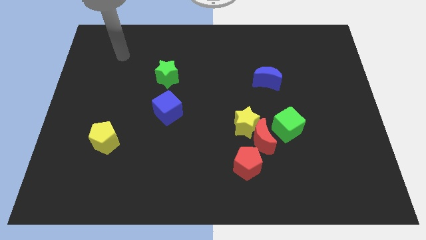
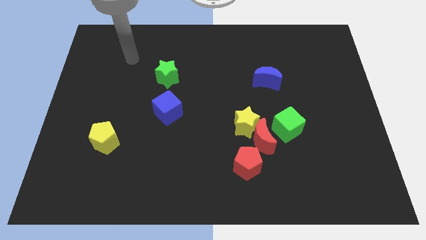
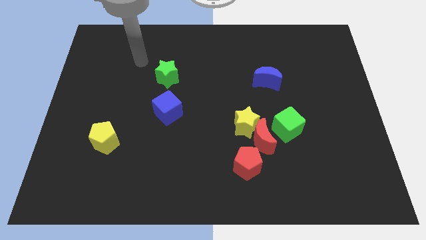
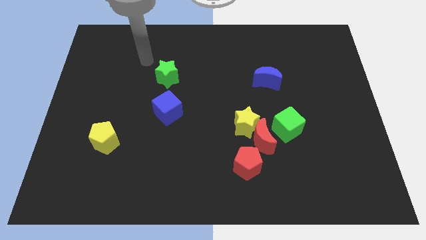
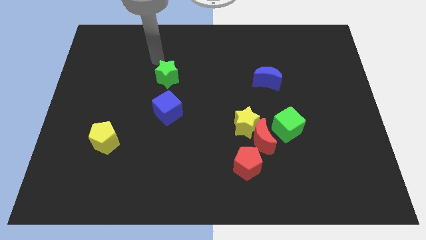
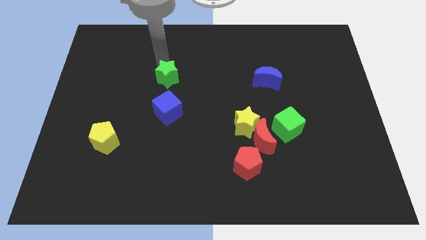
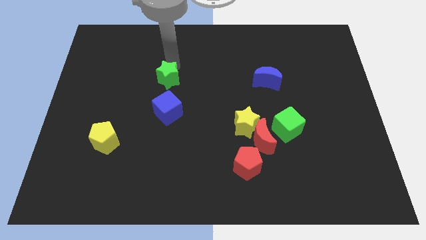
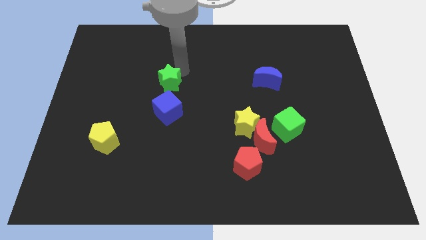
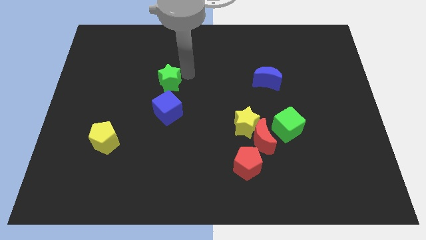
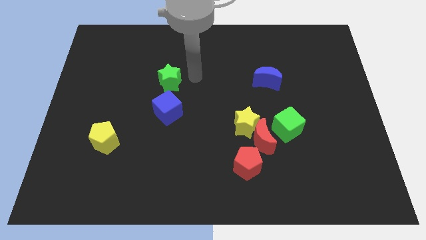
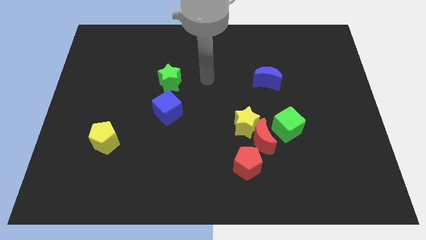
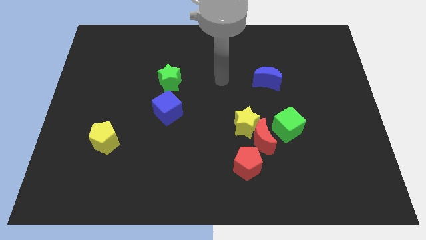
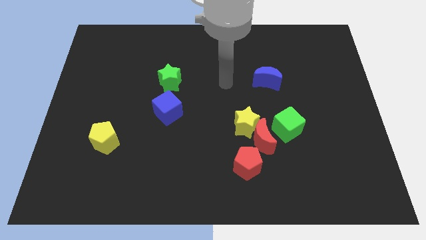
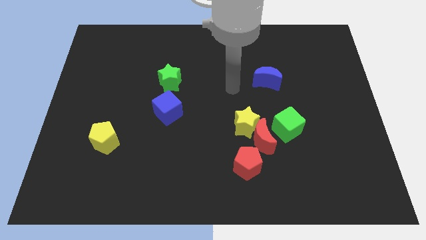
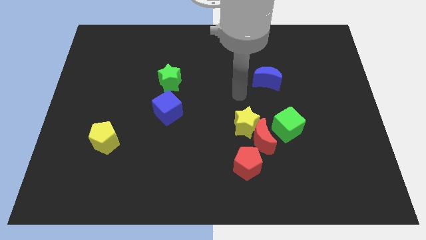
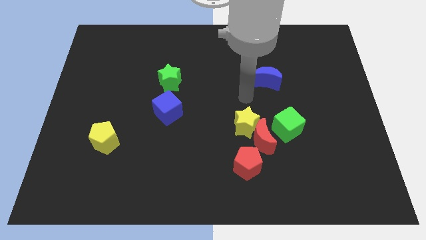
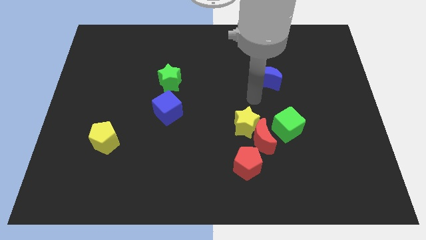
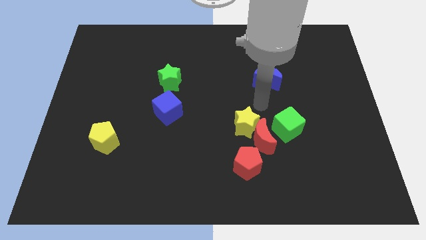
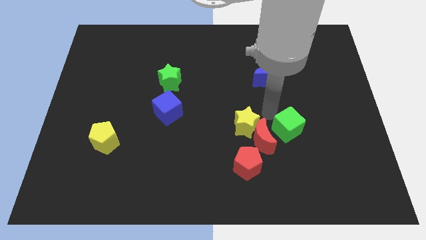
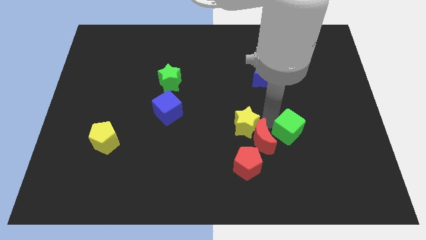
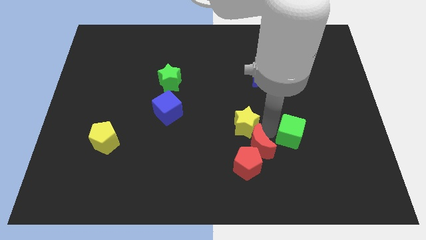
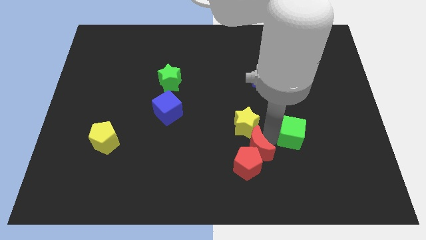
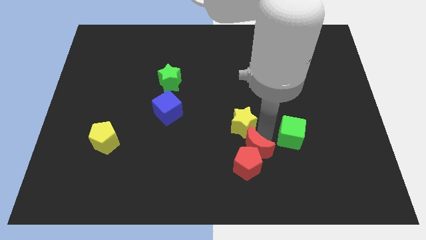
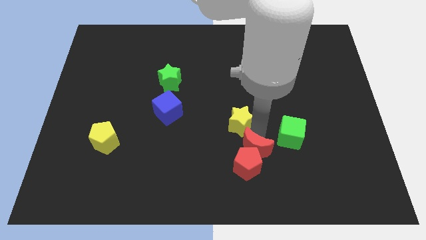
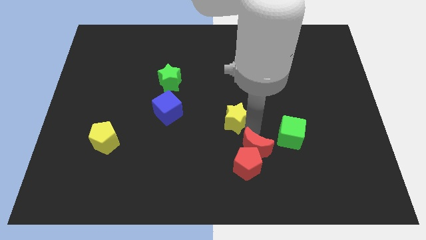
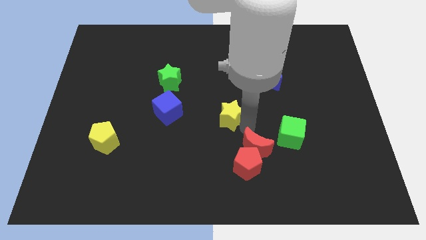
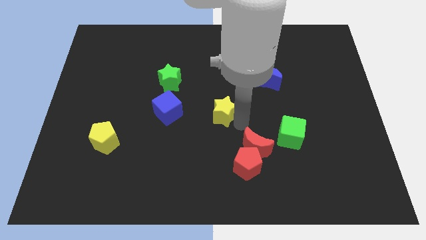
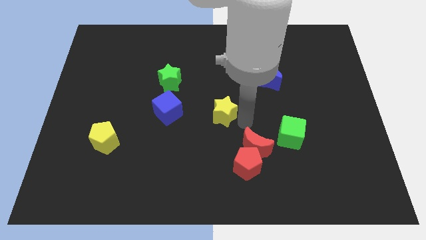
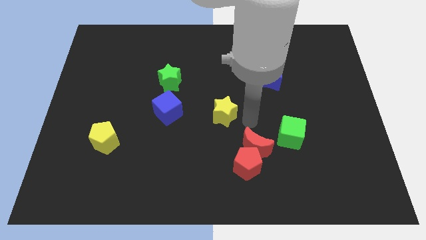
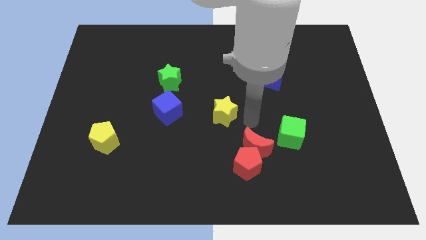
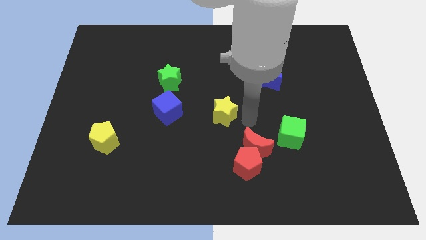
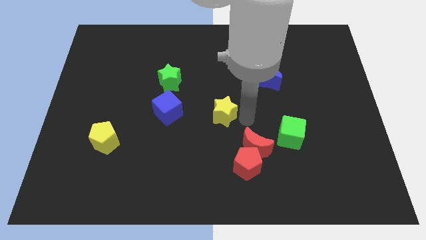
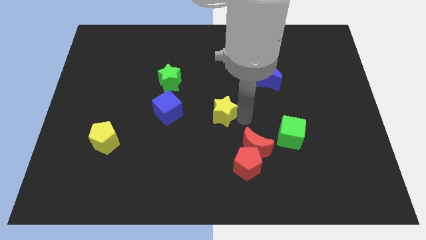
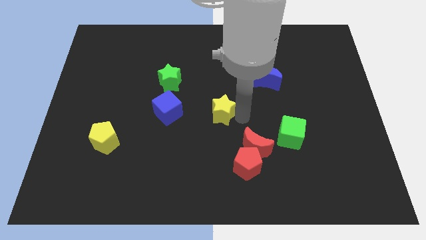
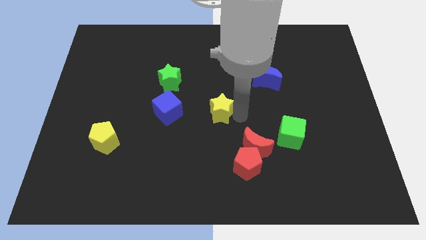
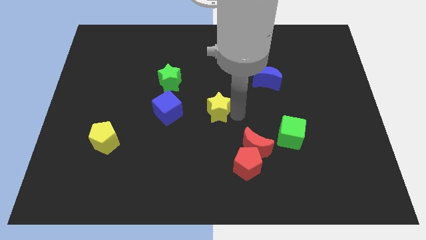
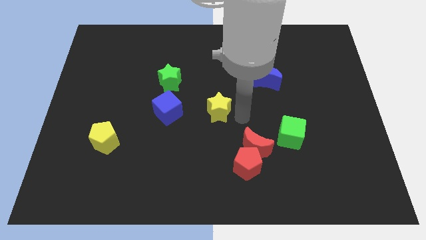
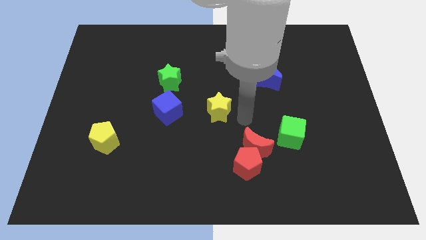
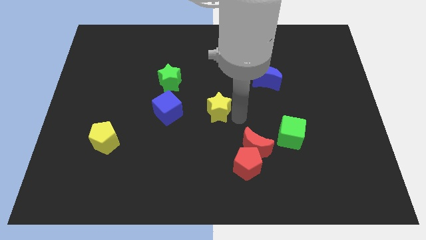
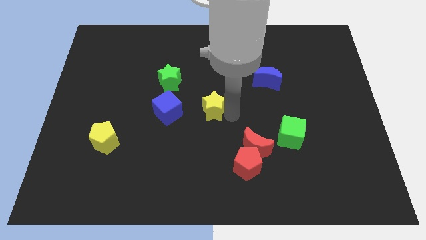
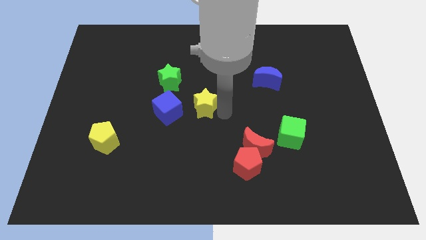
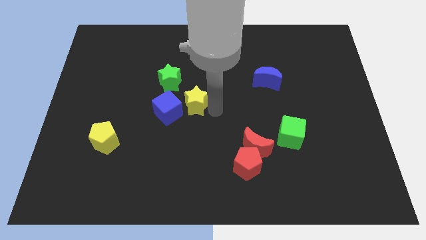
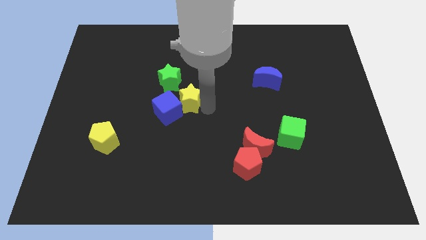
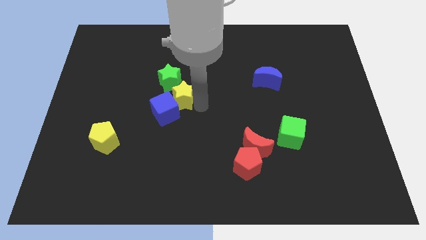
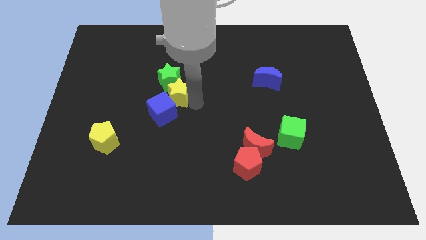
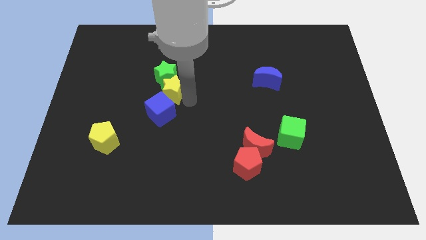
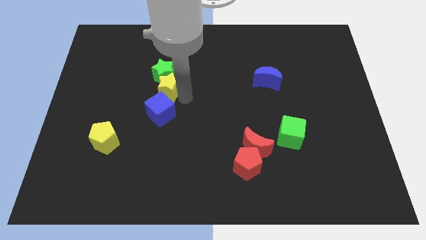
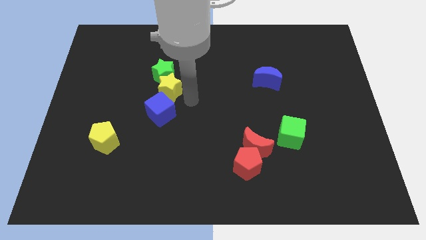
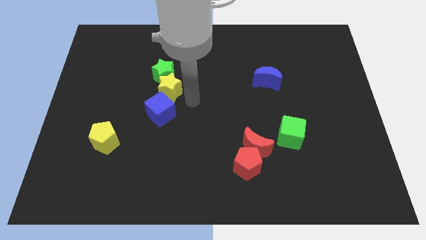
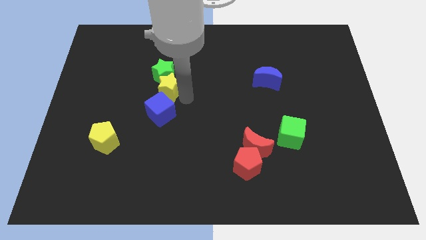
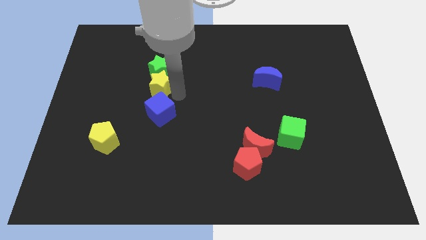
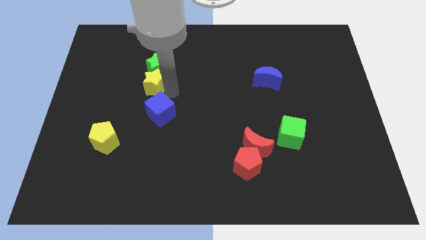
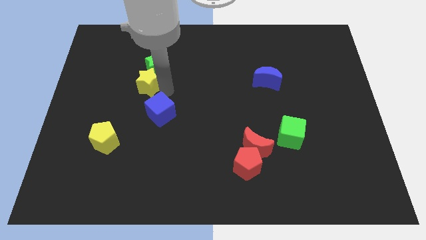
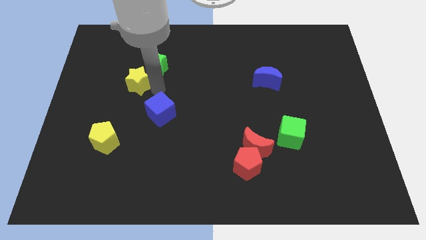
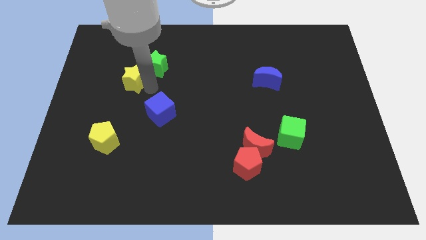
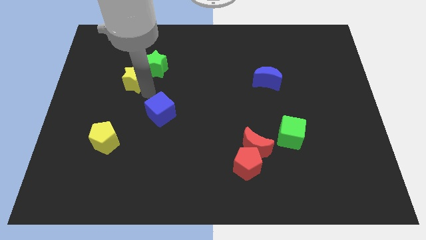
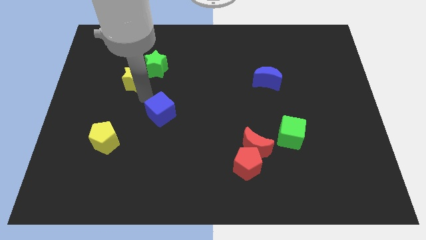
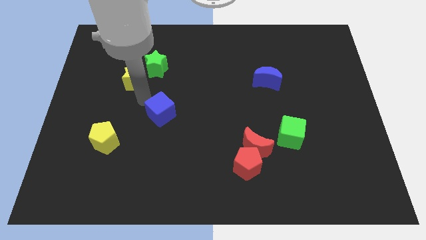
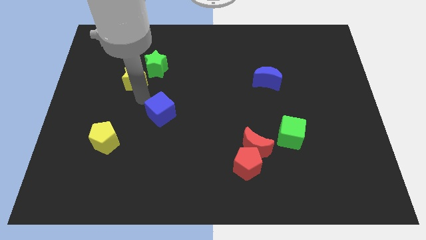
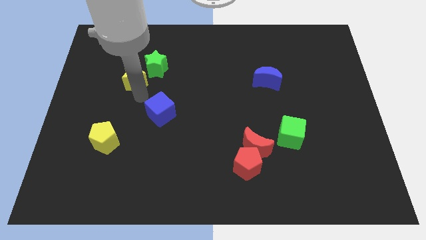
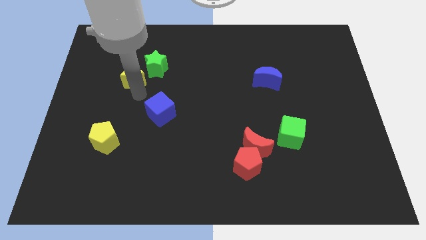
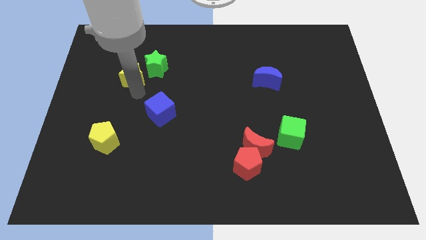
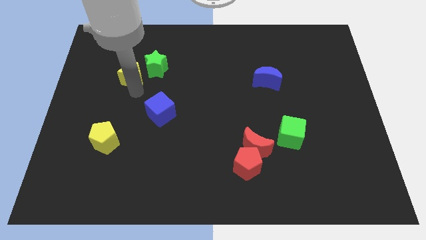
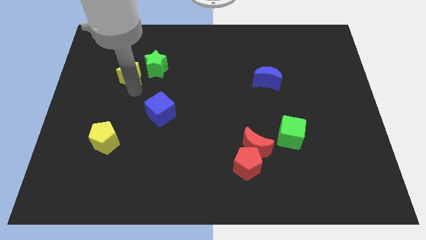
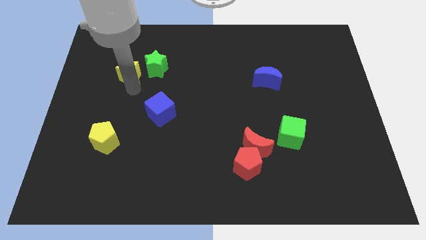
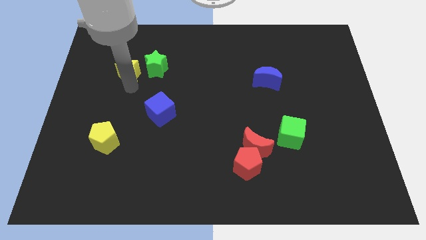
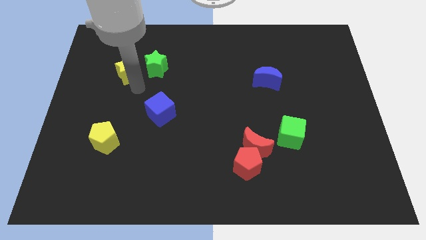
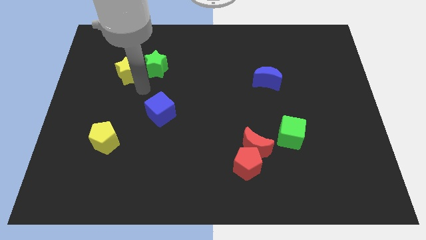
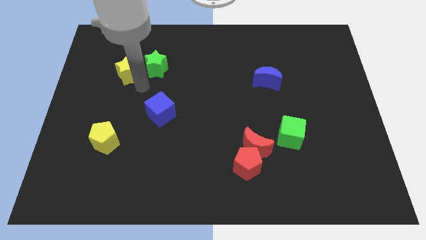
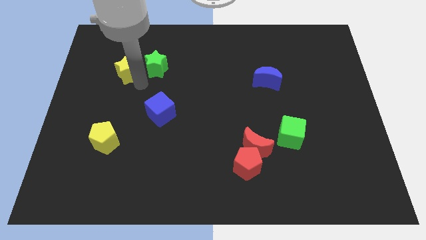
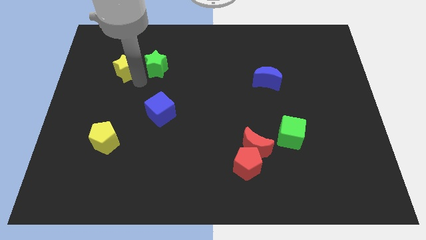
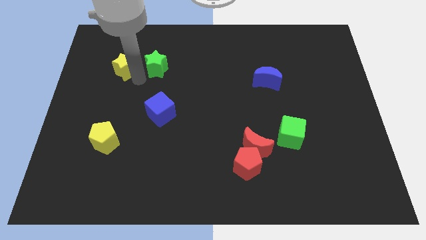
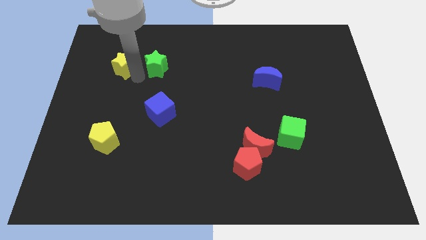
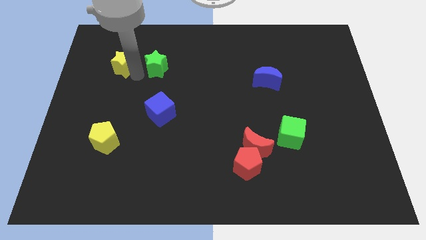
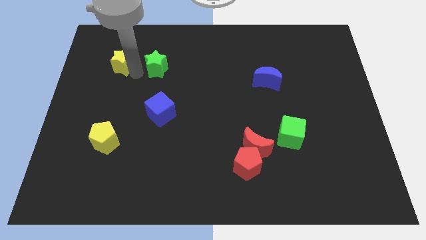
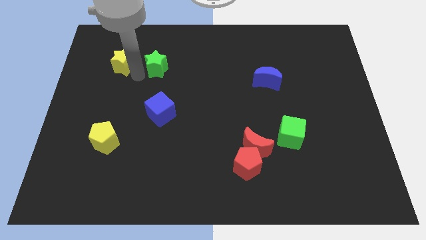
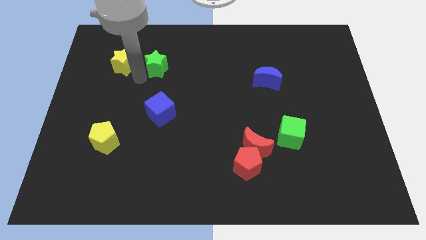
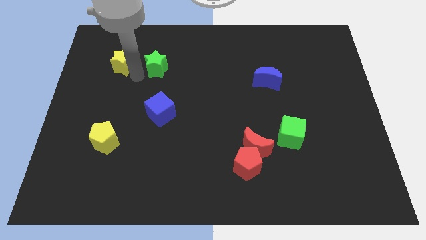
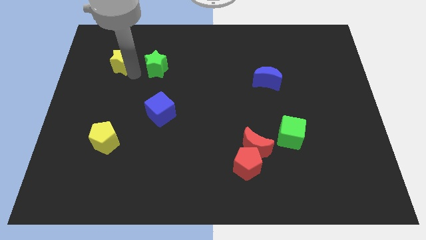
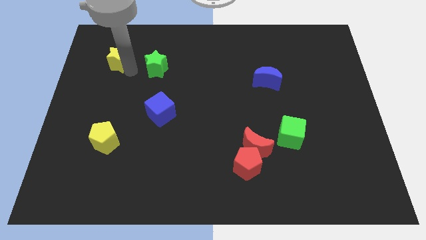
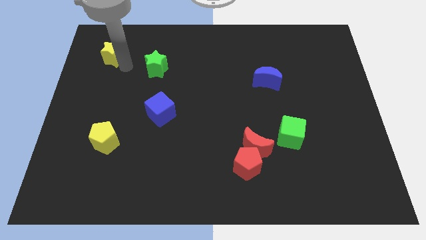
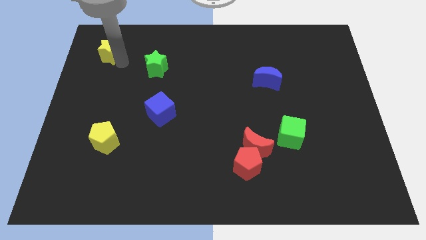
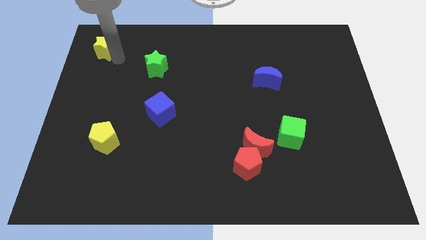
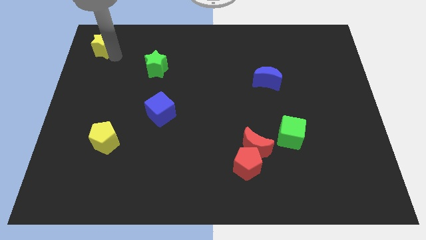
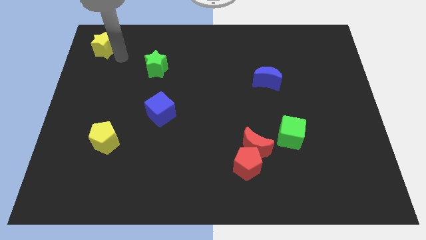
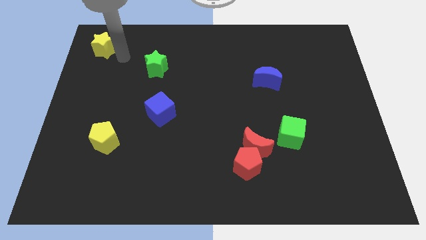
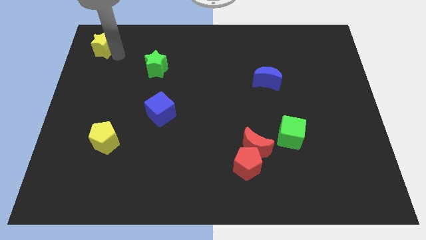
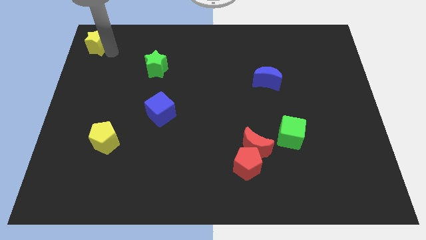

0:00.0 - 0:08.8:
push the yellow star to the top left
